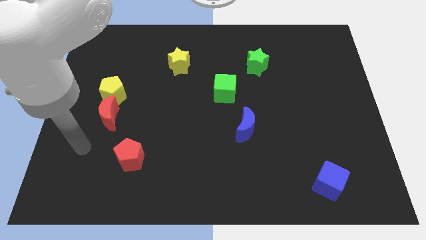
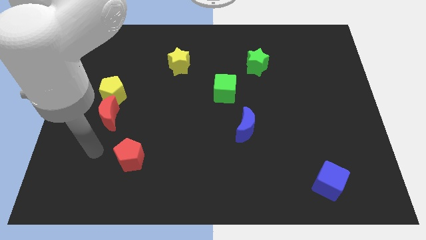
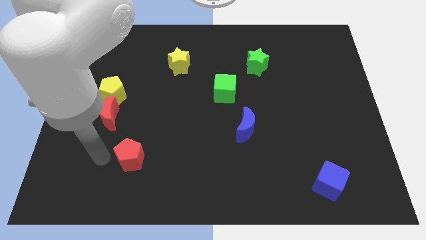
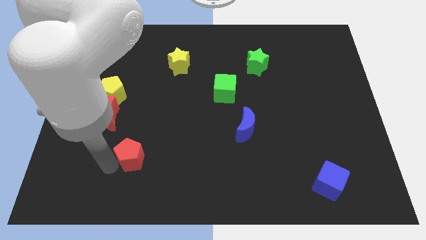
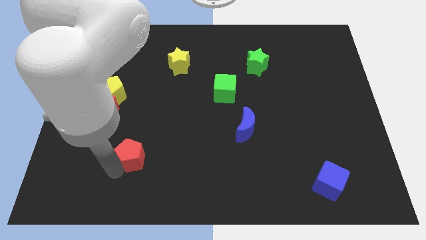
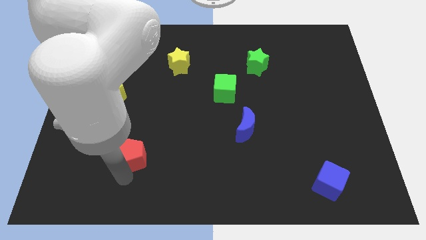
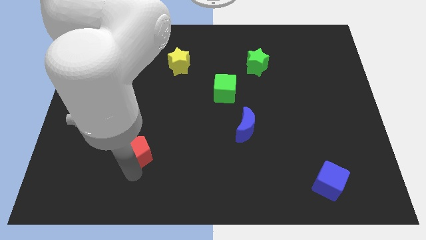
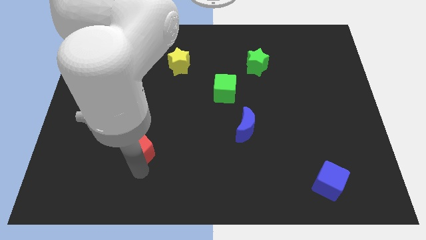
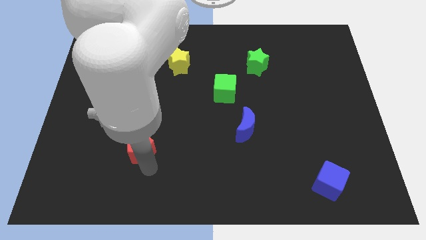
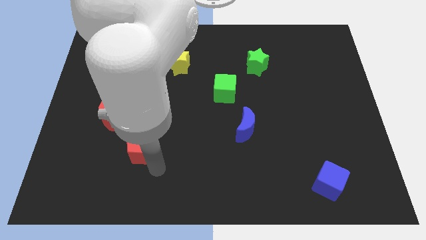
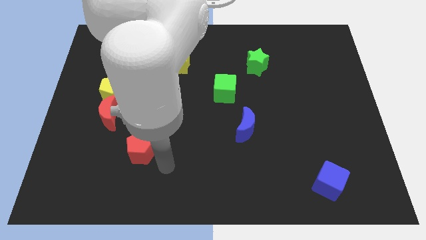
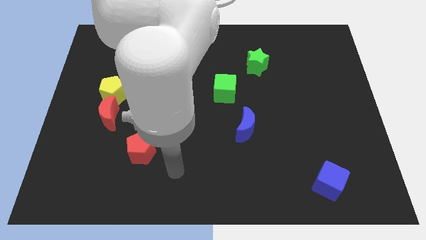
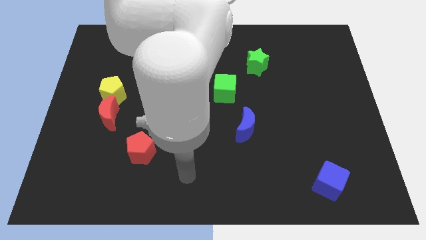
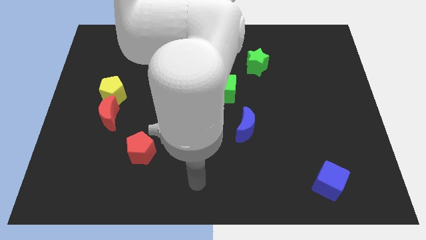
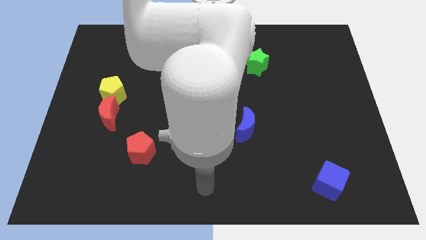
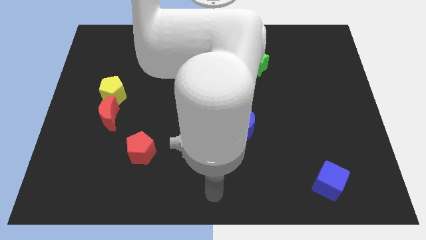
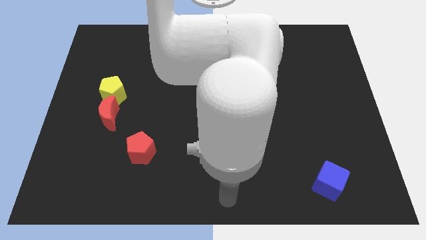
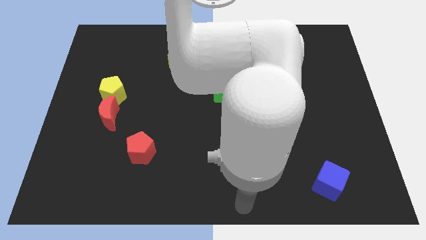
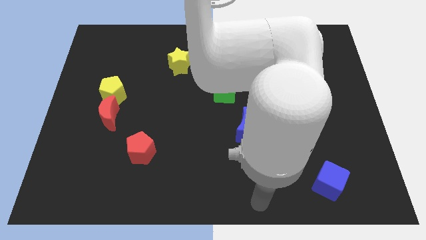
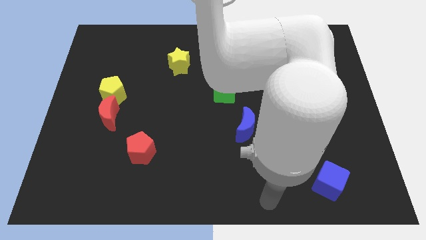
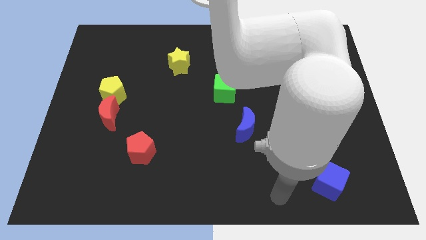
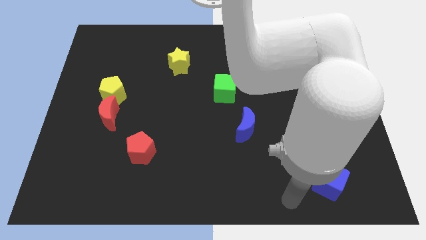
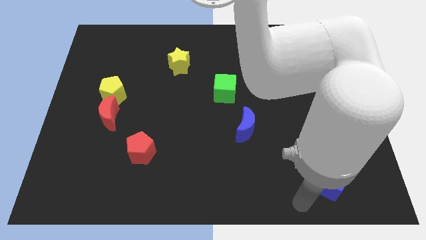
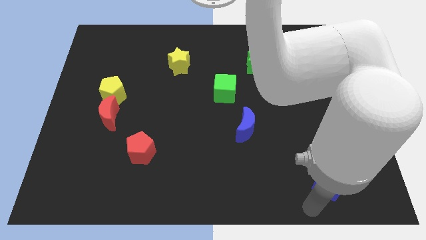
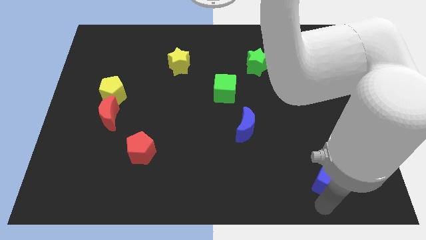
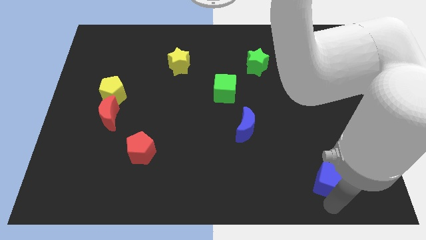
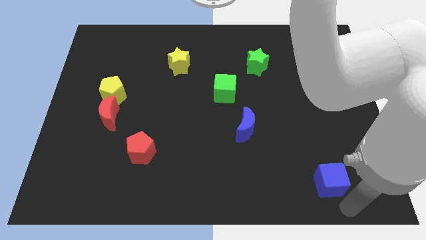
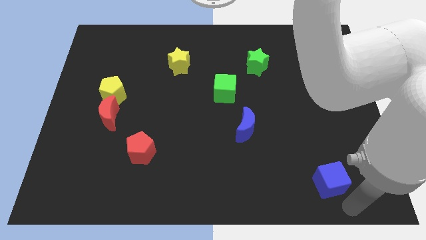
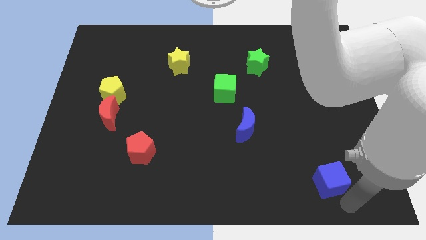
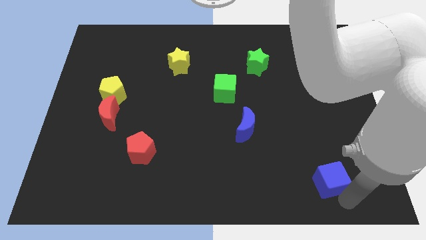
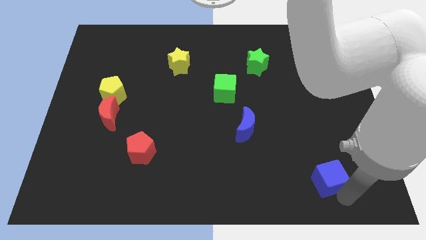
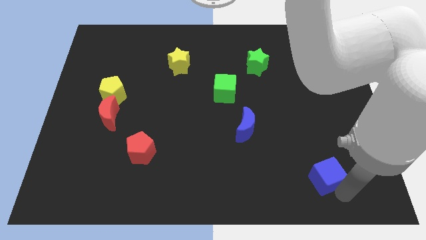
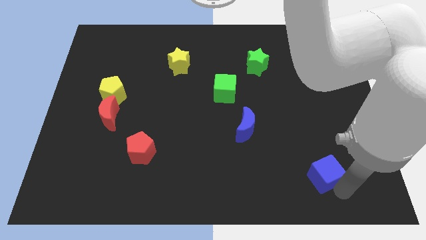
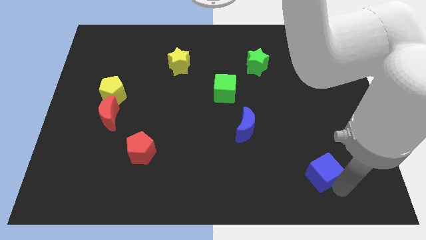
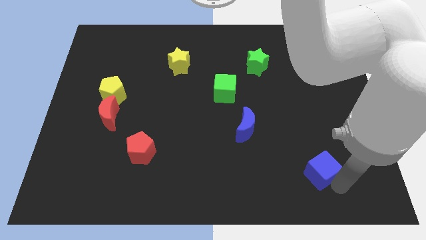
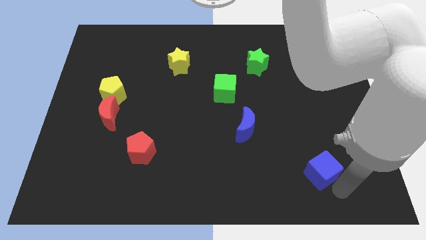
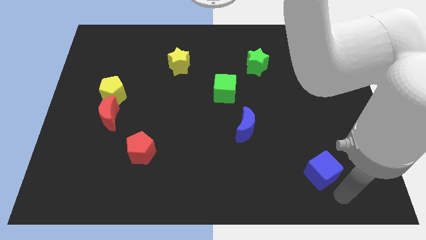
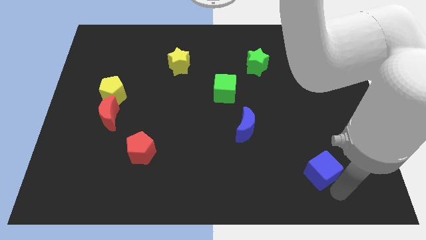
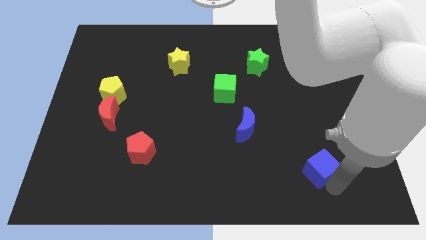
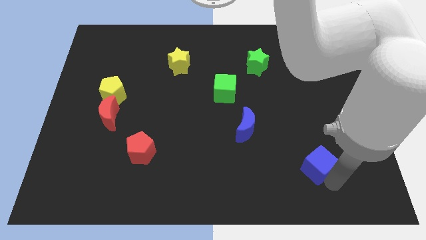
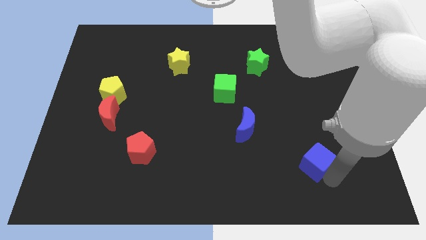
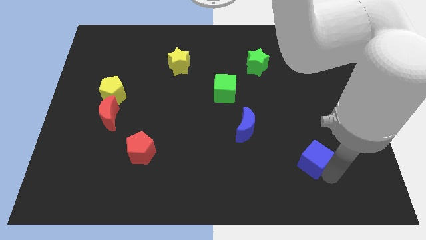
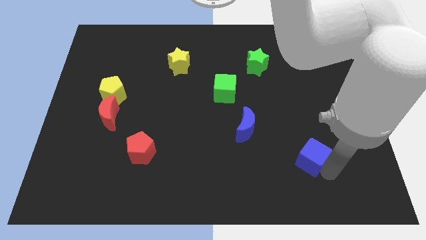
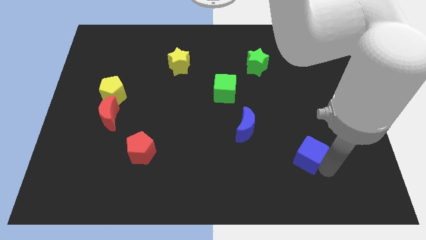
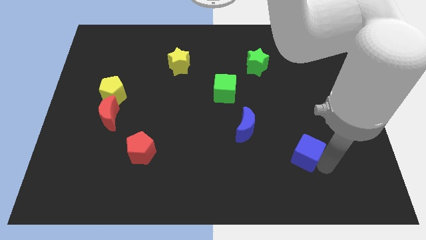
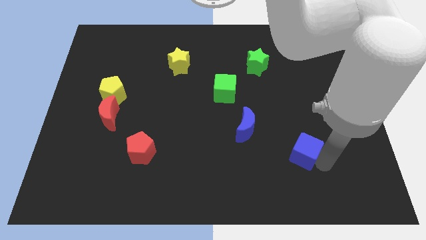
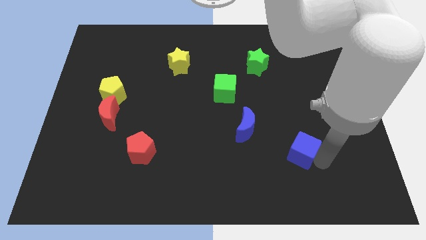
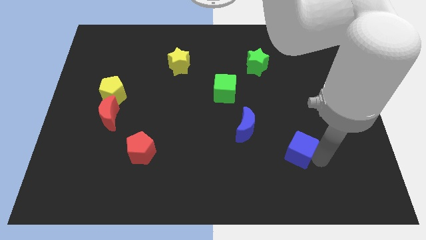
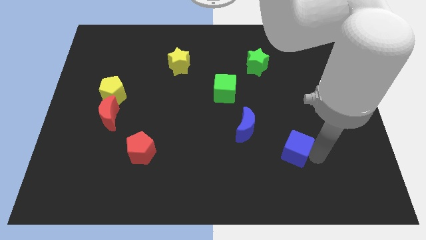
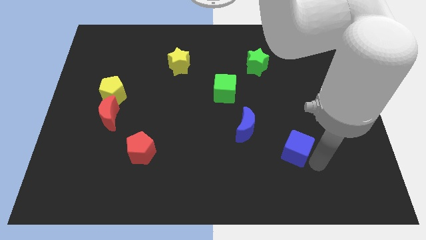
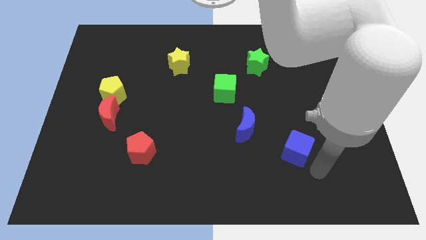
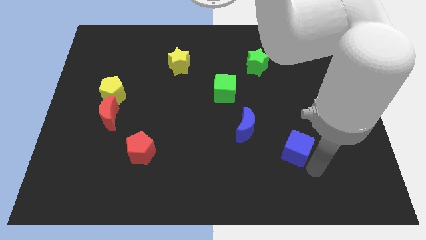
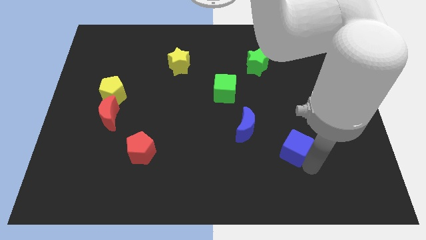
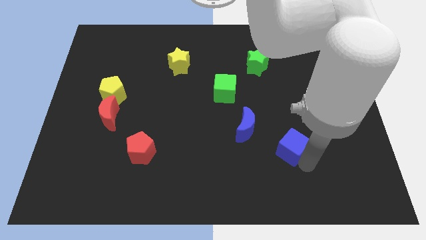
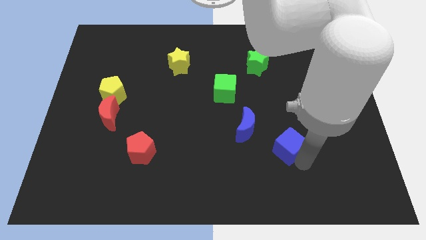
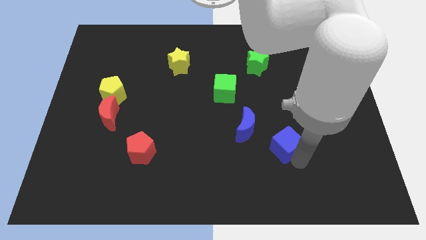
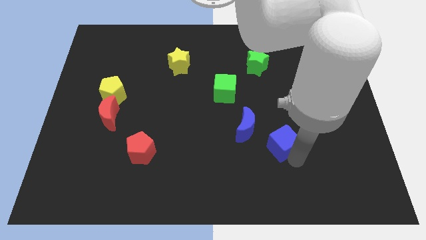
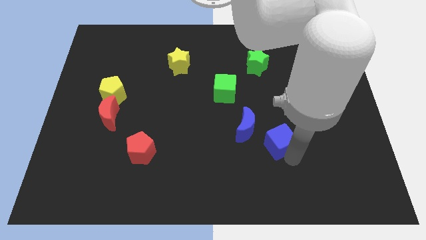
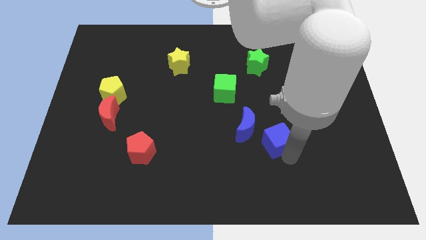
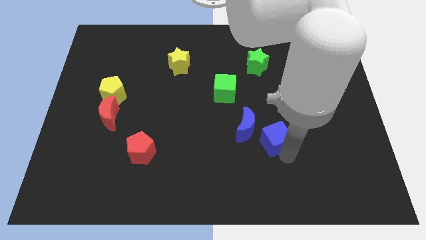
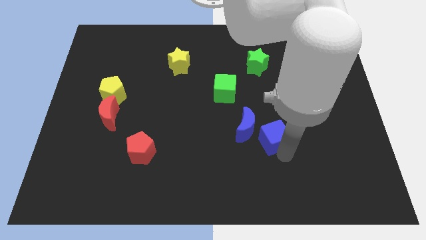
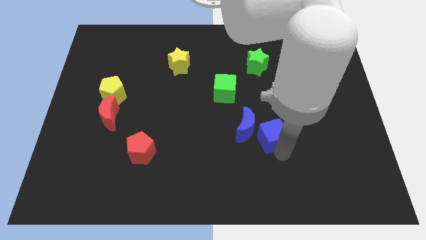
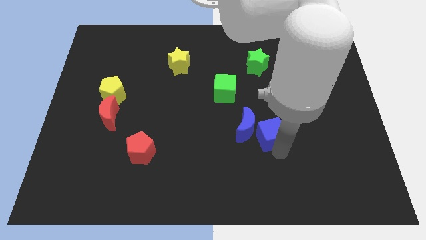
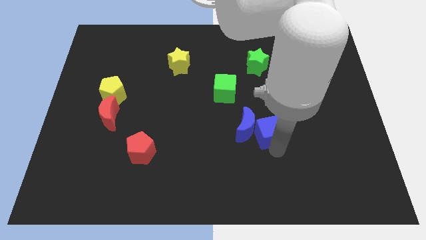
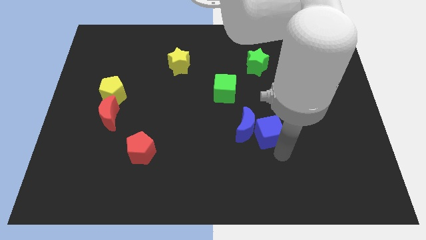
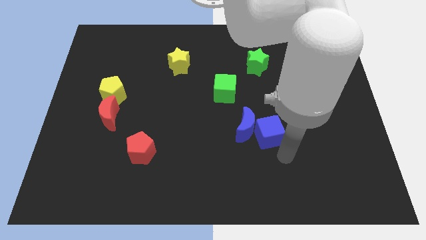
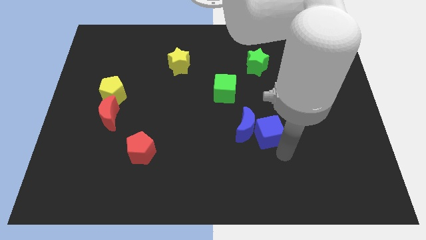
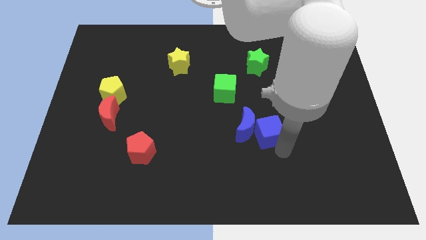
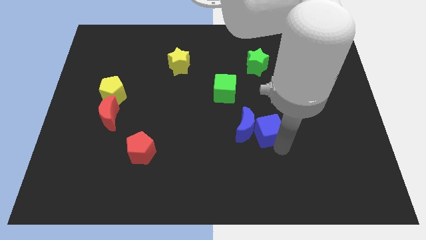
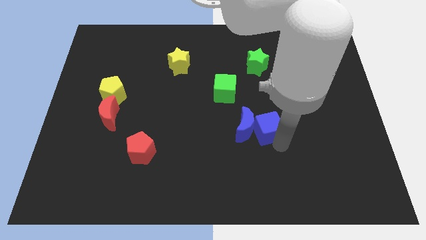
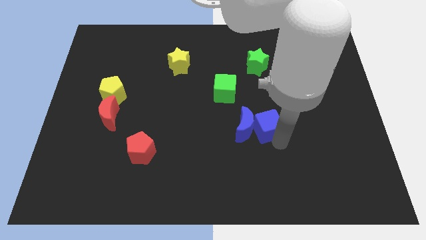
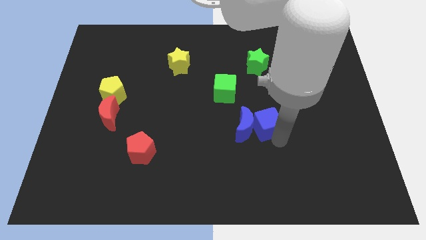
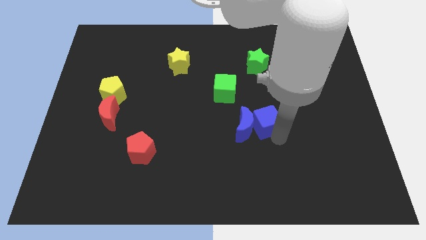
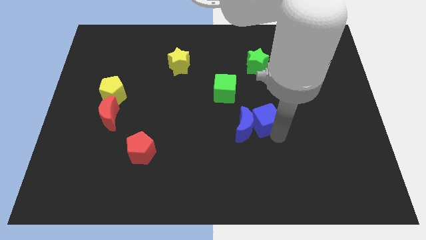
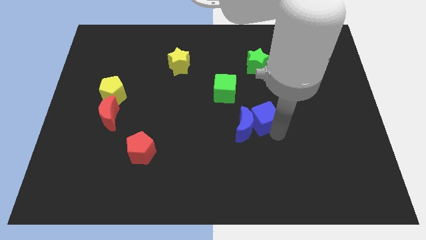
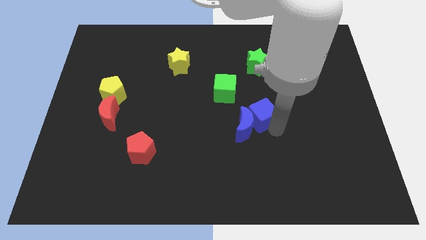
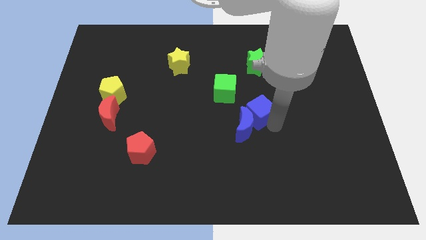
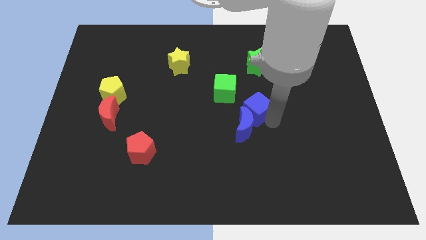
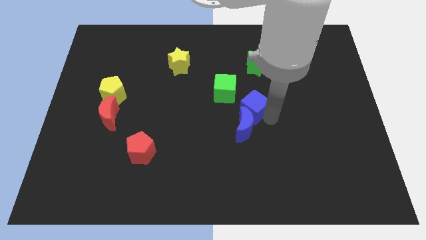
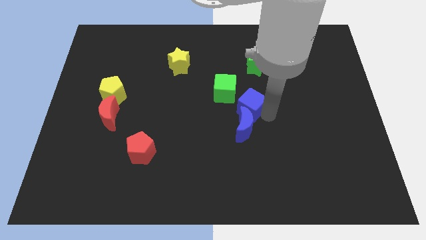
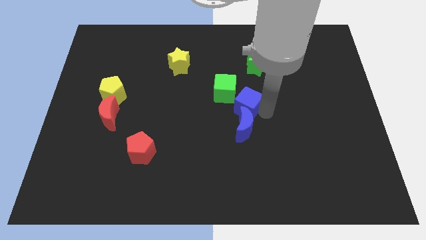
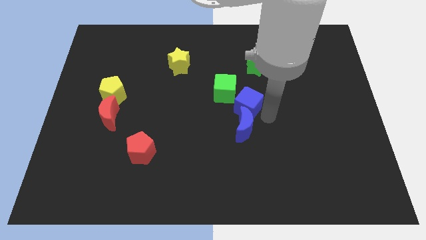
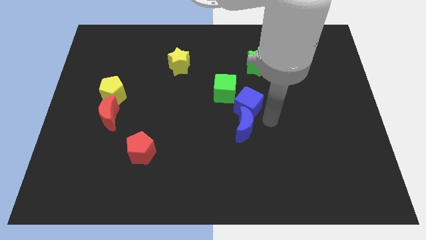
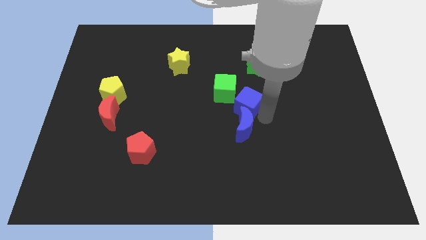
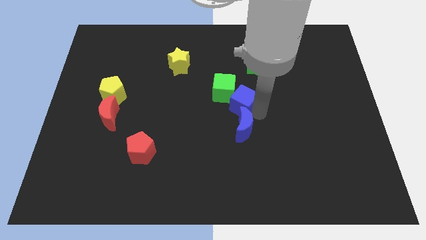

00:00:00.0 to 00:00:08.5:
move the blue cube to the green cube
